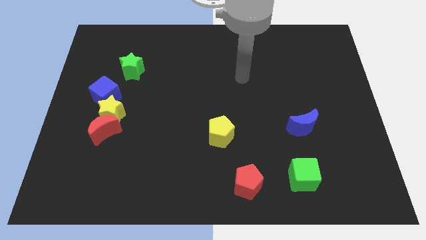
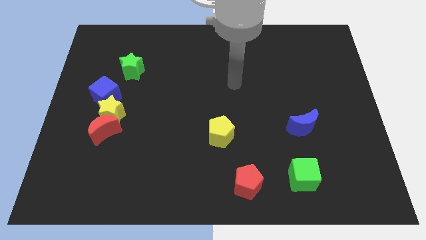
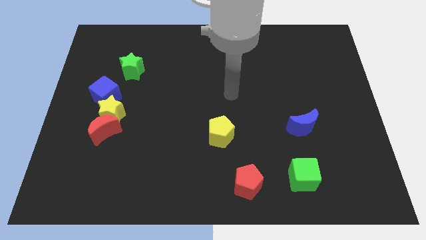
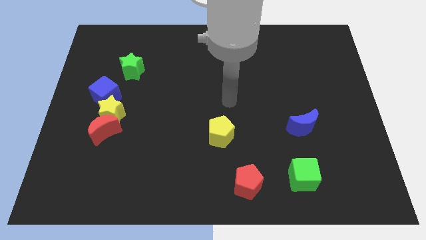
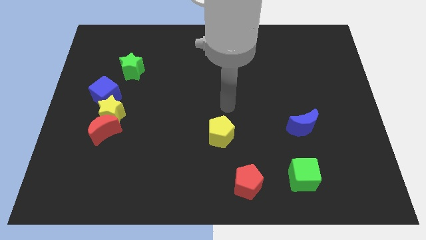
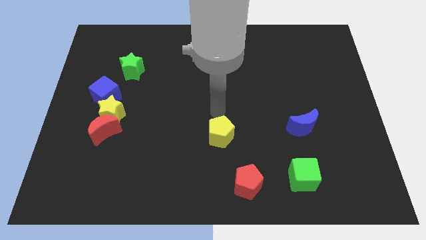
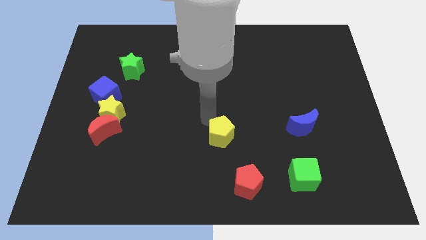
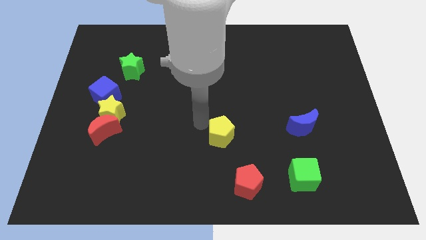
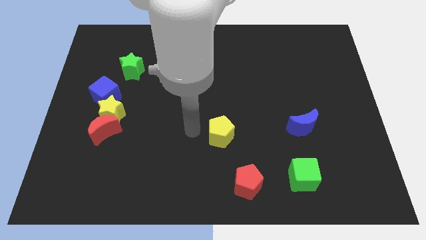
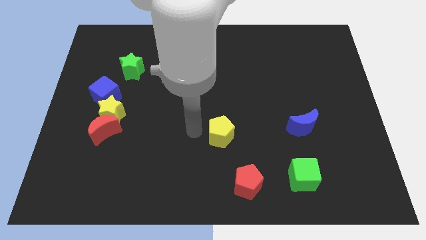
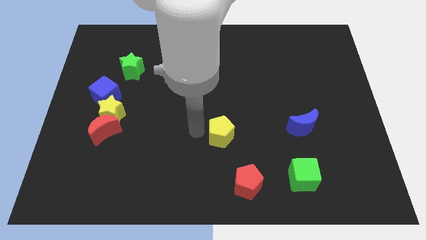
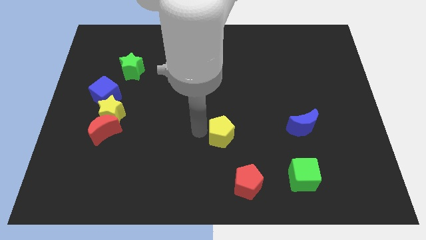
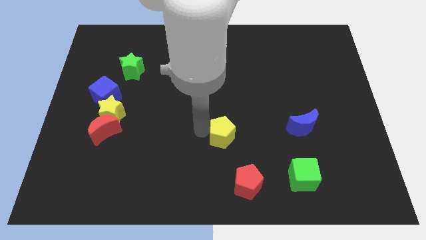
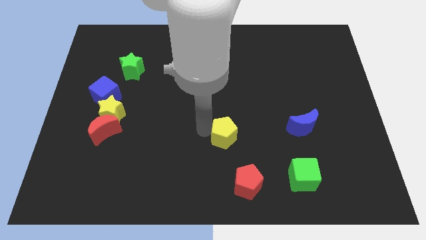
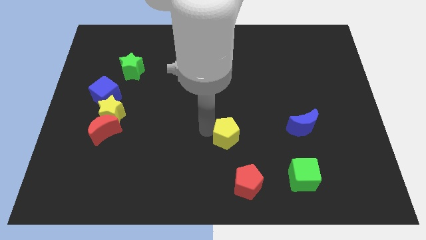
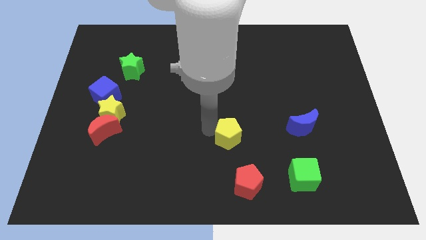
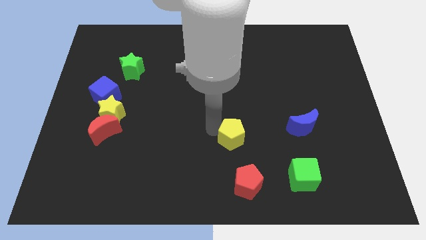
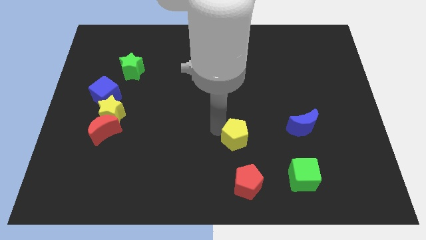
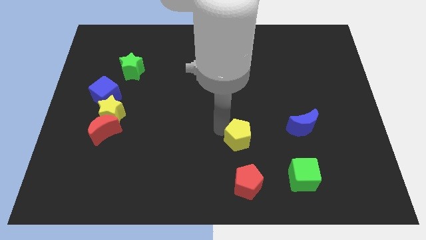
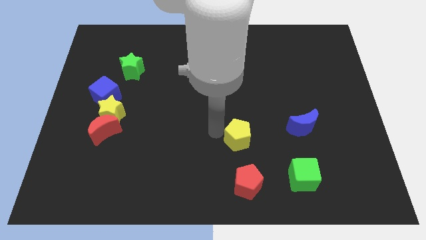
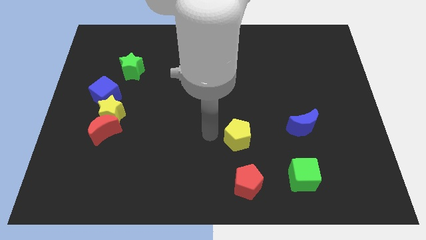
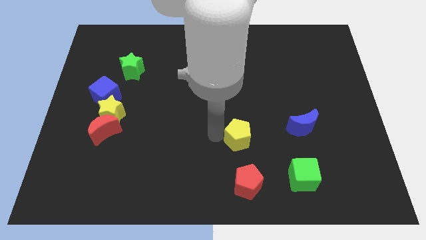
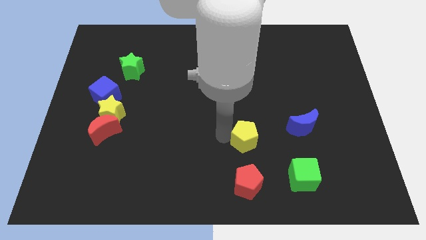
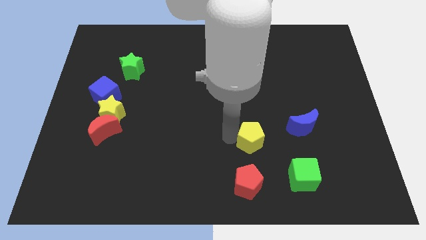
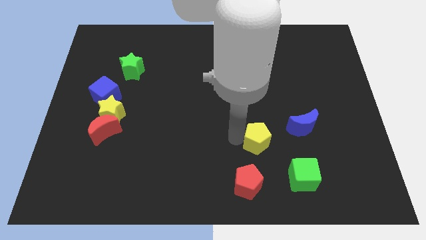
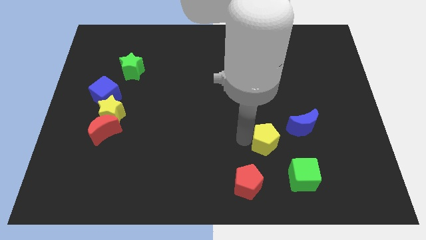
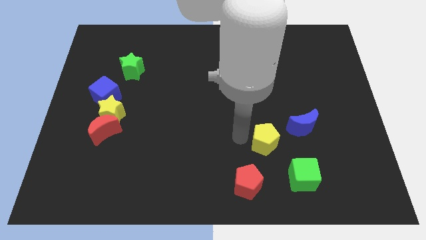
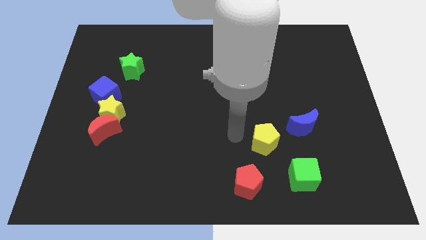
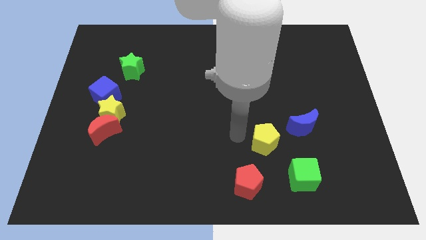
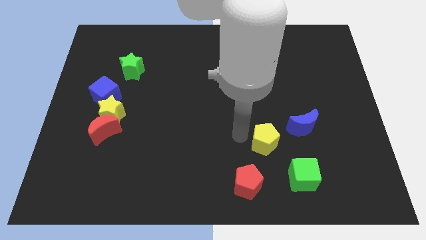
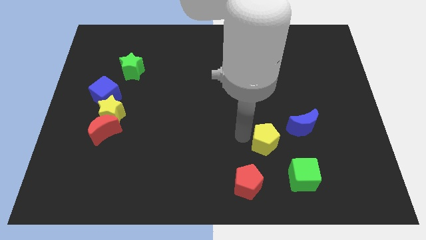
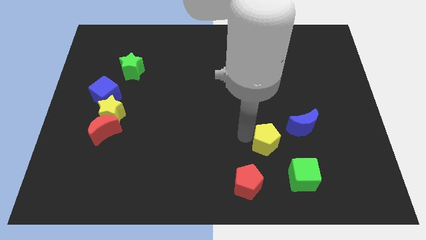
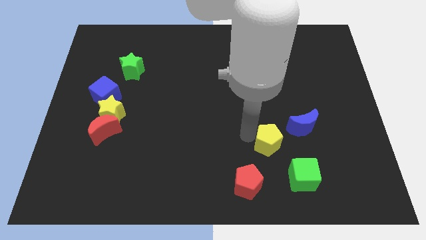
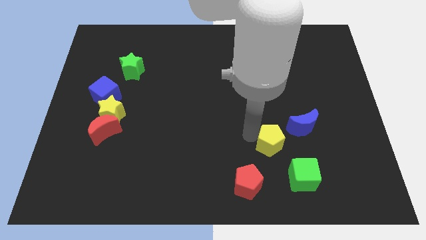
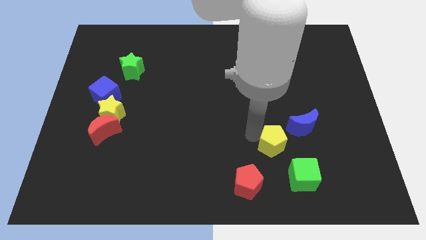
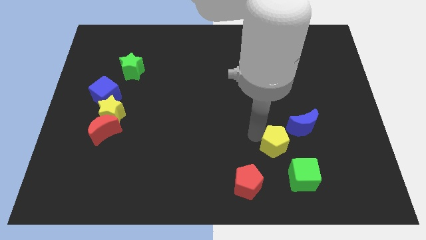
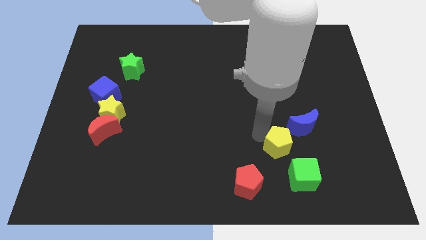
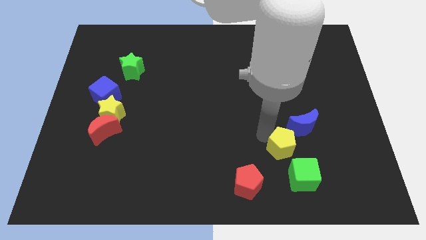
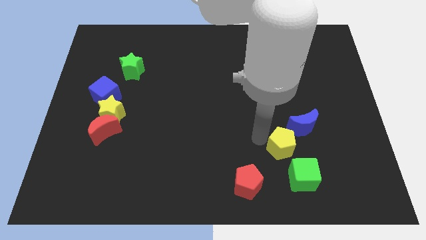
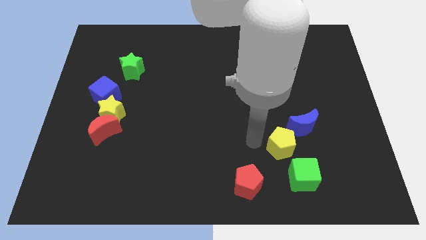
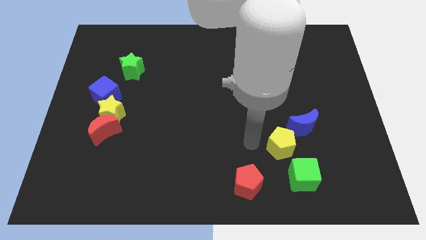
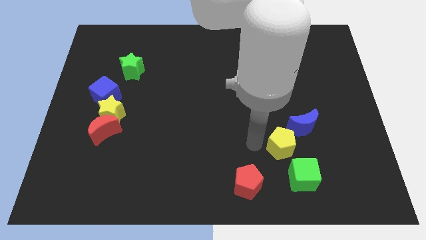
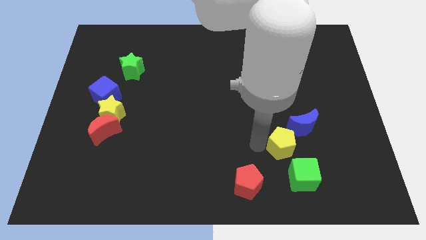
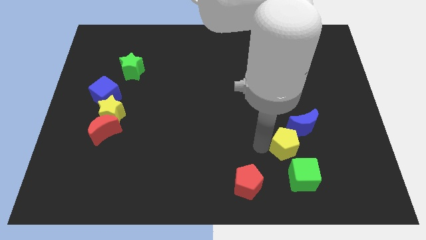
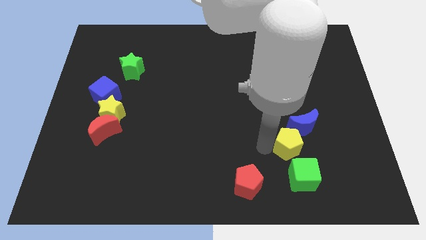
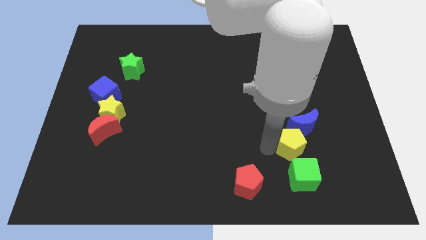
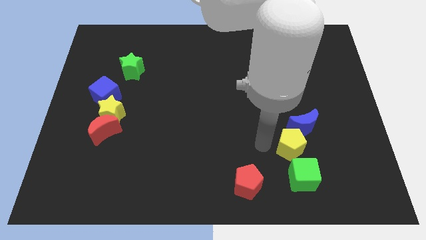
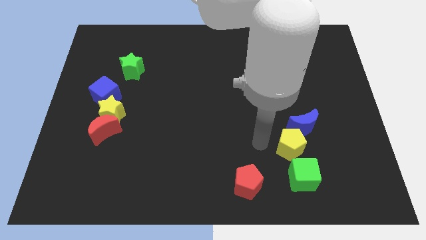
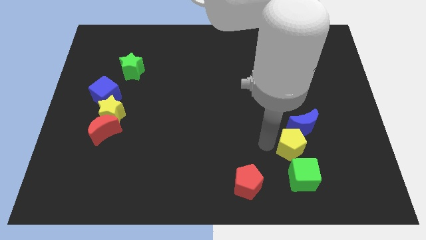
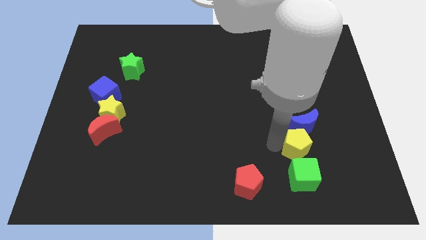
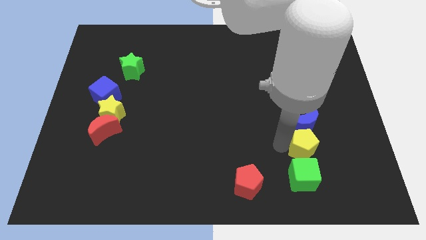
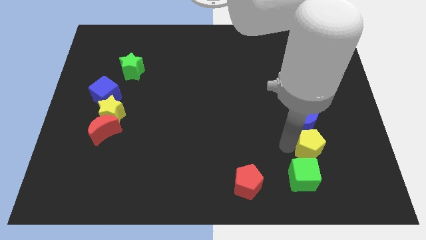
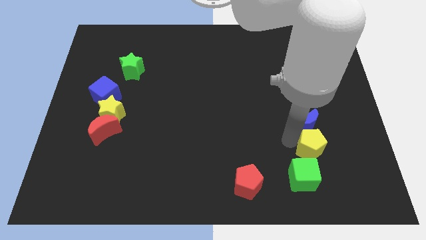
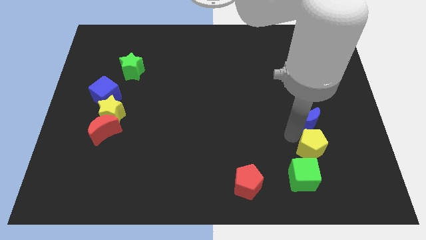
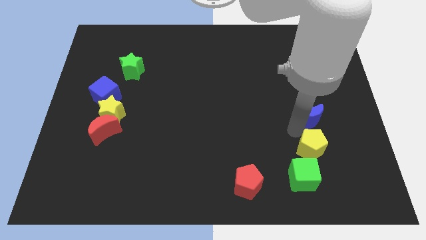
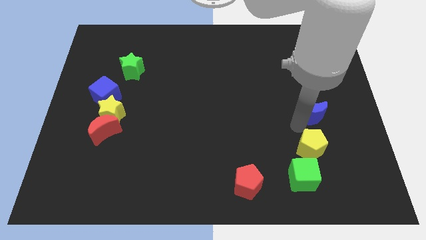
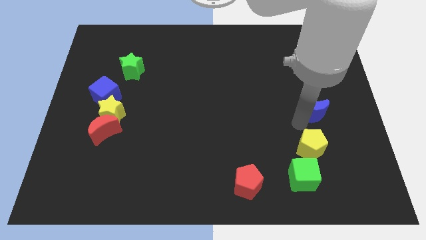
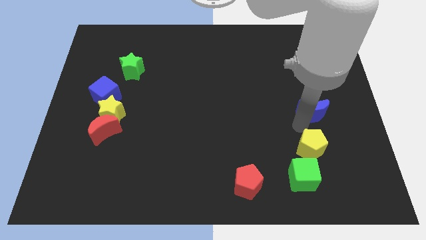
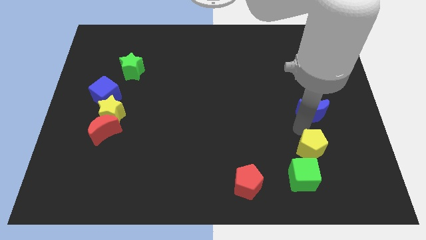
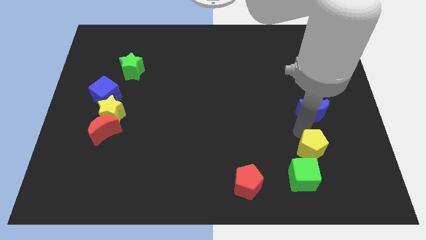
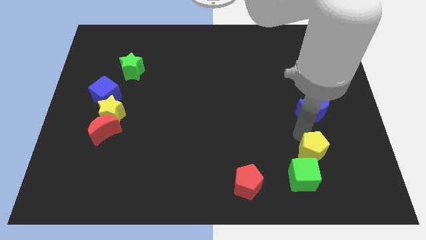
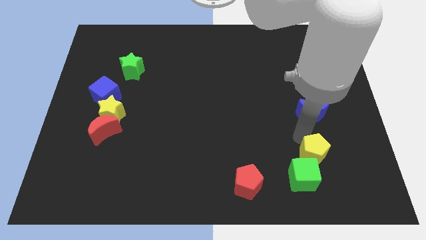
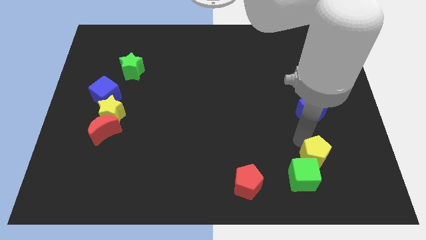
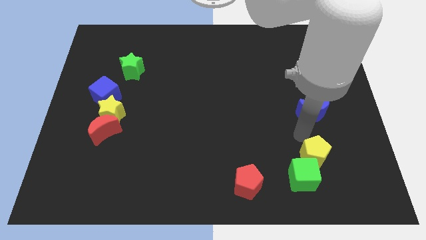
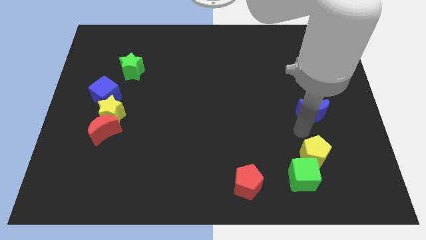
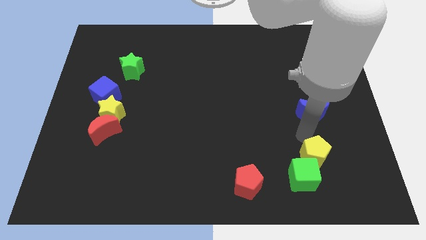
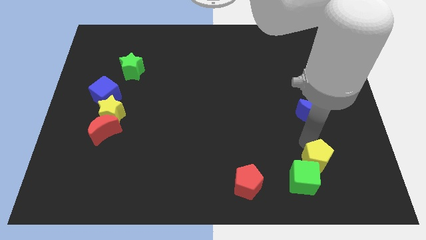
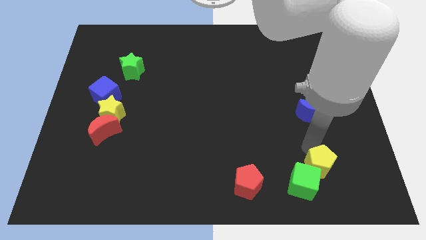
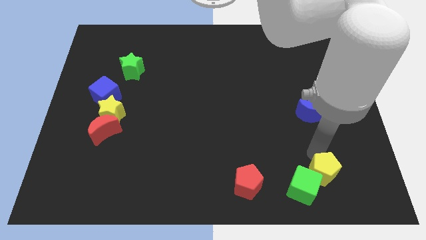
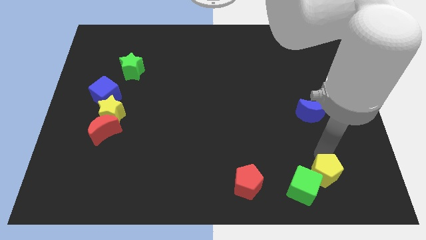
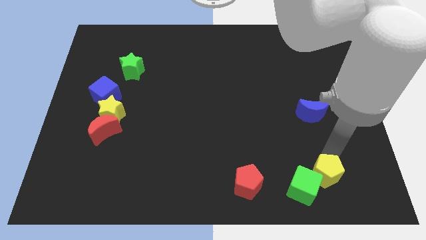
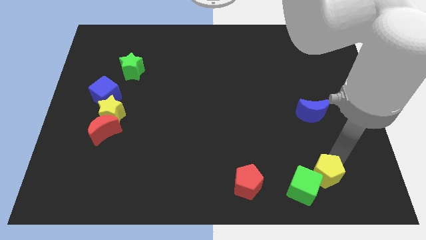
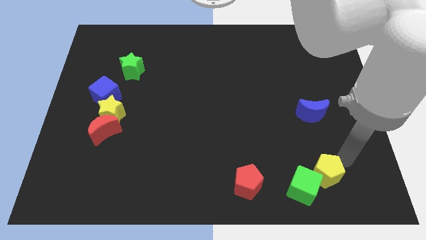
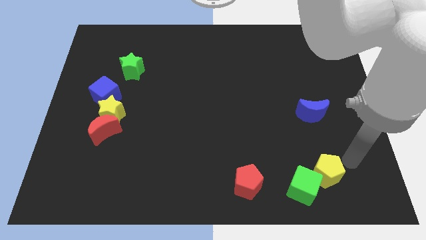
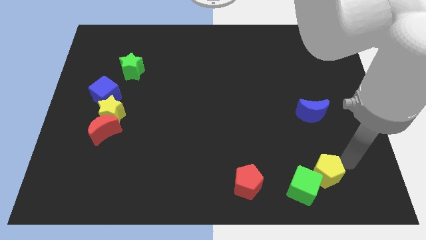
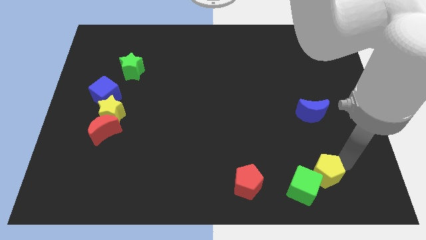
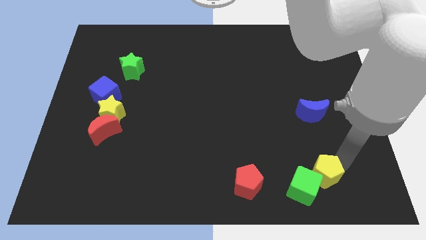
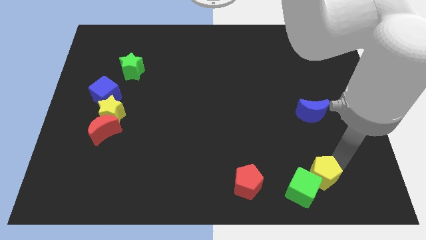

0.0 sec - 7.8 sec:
move the yellow pentagon to the right side of the red pentagon
